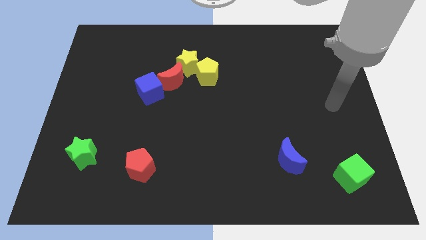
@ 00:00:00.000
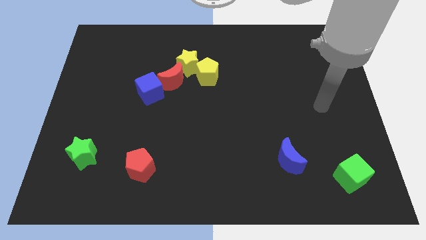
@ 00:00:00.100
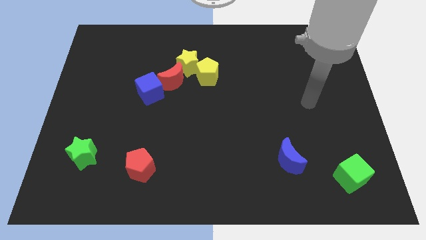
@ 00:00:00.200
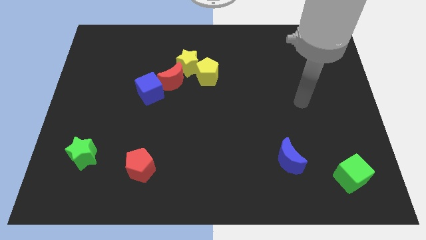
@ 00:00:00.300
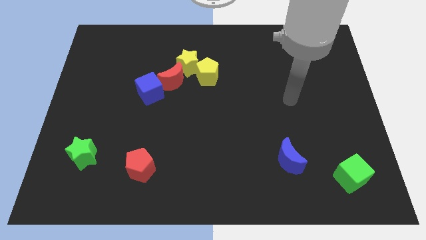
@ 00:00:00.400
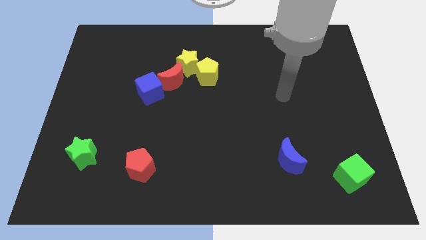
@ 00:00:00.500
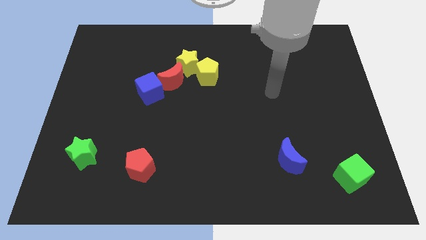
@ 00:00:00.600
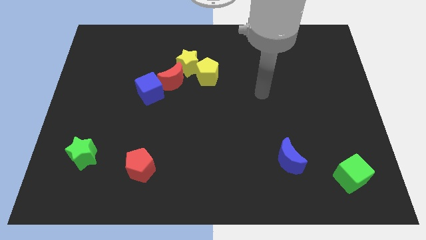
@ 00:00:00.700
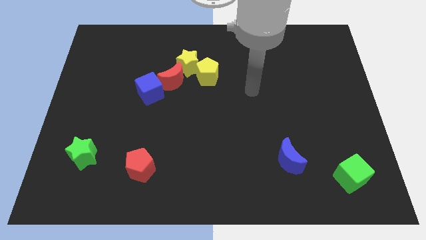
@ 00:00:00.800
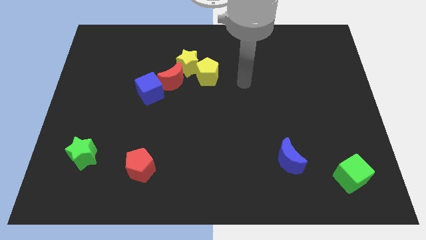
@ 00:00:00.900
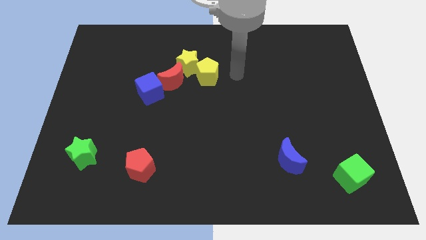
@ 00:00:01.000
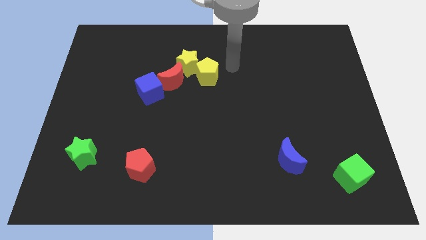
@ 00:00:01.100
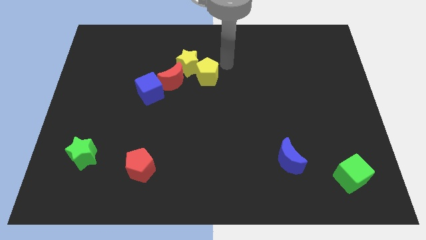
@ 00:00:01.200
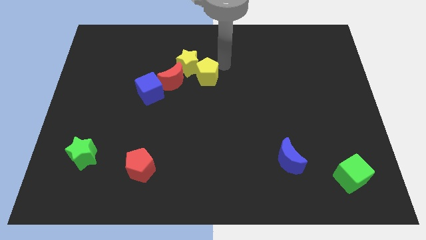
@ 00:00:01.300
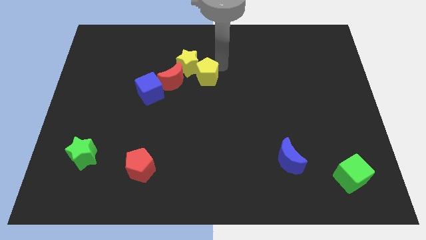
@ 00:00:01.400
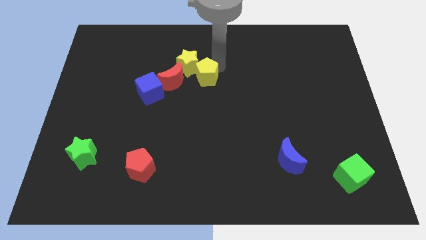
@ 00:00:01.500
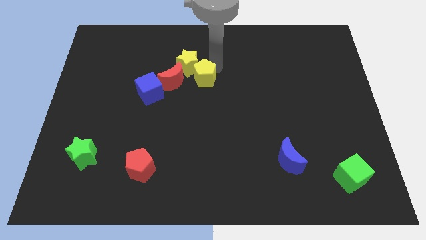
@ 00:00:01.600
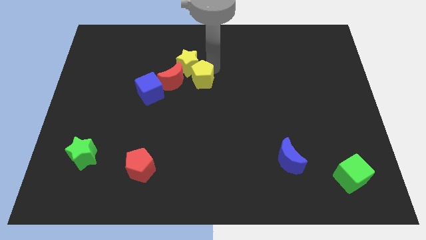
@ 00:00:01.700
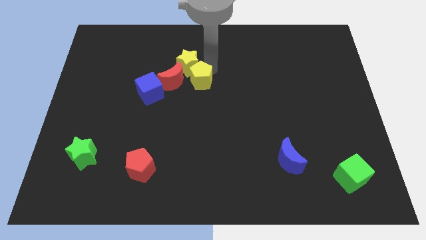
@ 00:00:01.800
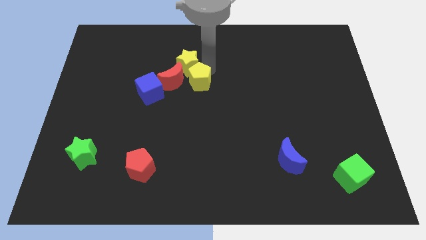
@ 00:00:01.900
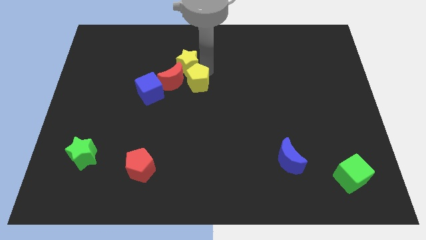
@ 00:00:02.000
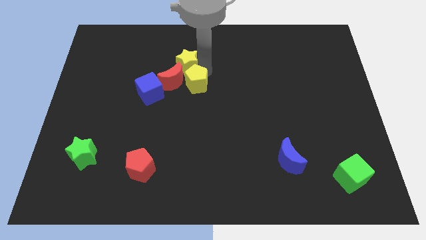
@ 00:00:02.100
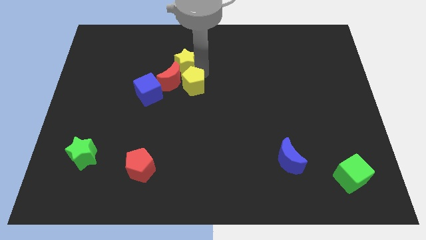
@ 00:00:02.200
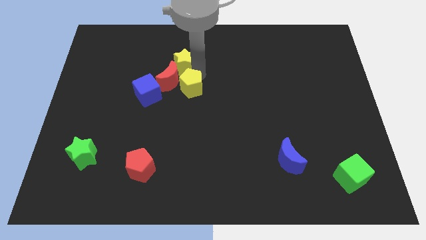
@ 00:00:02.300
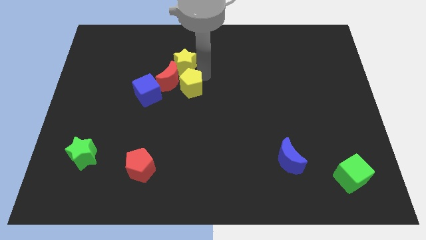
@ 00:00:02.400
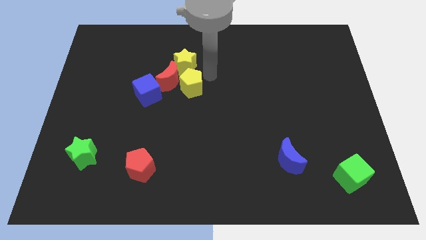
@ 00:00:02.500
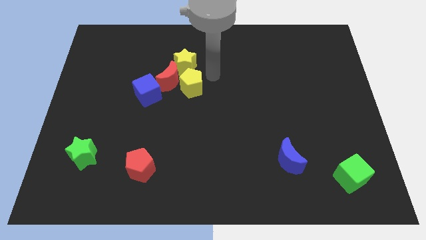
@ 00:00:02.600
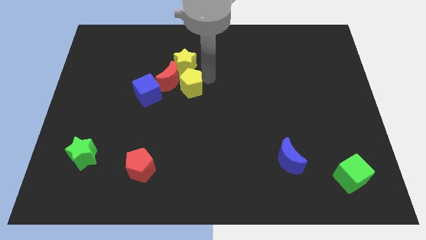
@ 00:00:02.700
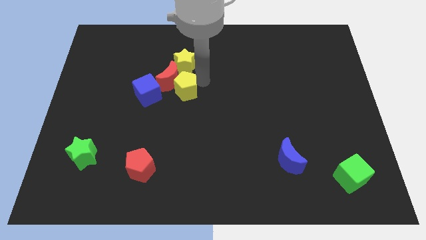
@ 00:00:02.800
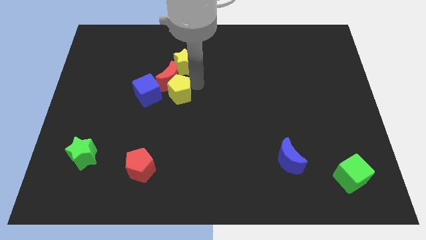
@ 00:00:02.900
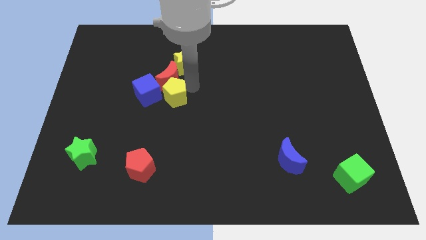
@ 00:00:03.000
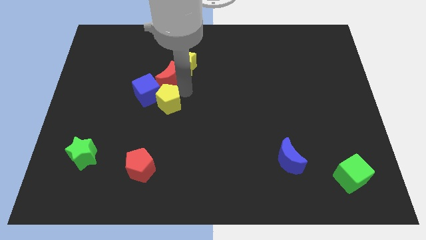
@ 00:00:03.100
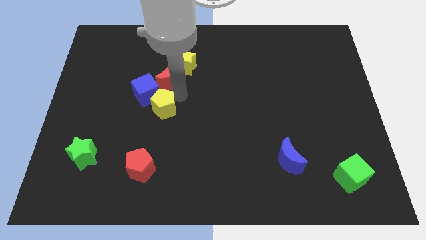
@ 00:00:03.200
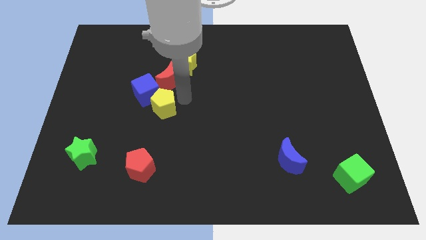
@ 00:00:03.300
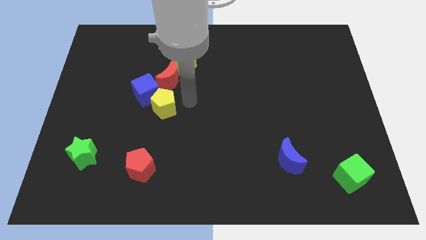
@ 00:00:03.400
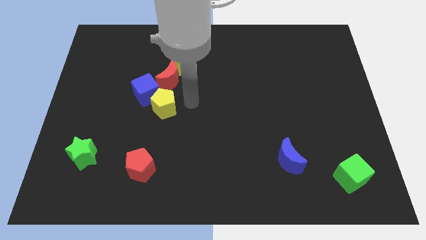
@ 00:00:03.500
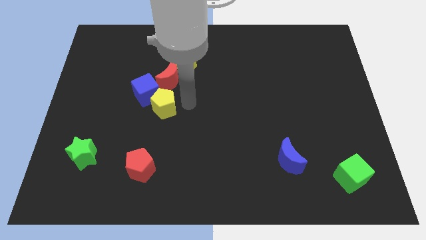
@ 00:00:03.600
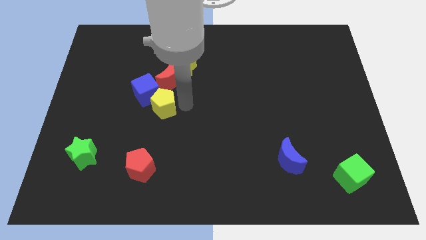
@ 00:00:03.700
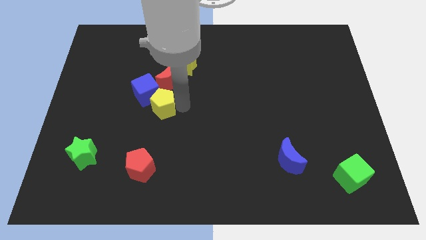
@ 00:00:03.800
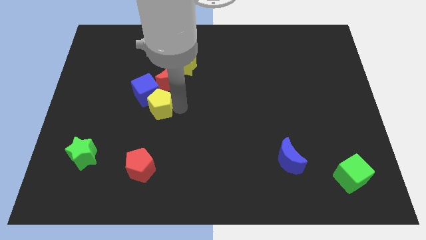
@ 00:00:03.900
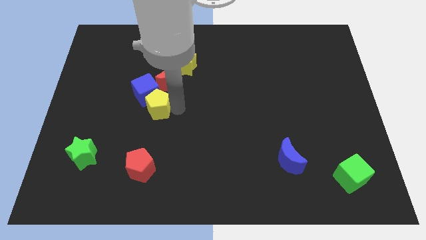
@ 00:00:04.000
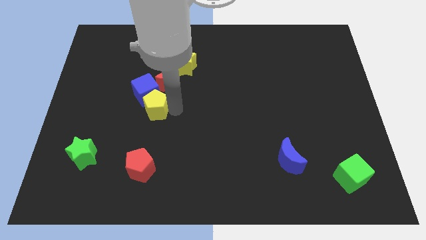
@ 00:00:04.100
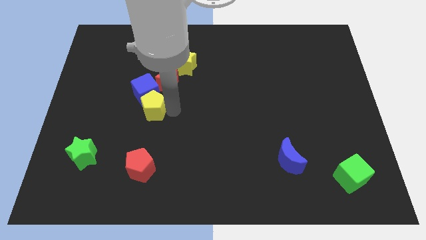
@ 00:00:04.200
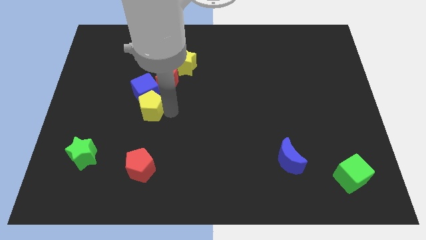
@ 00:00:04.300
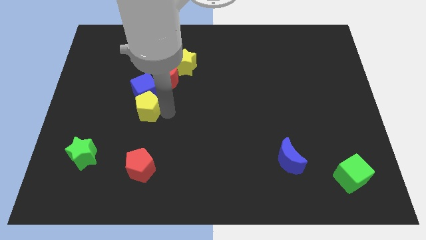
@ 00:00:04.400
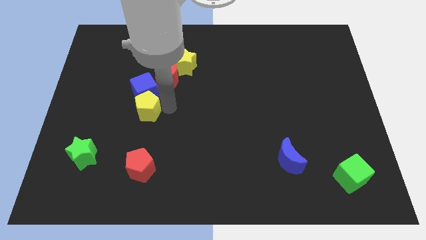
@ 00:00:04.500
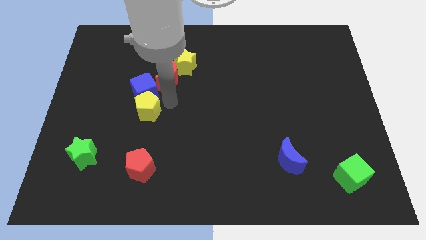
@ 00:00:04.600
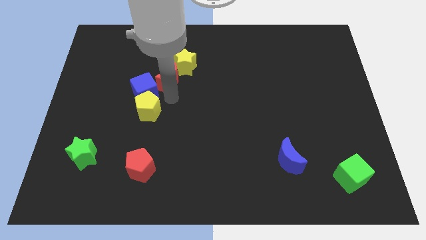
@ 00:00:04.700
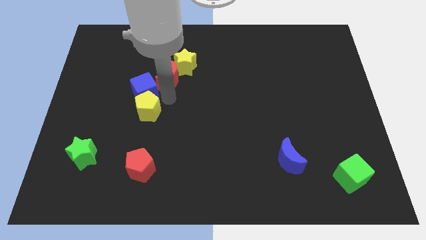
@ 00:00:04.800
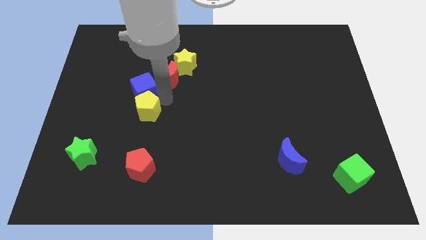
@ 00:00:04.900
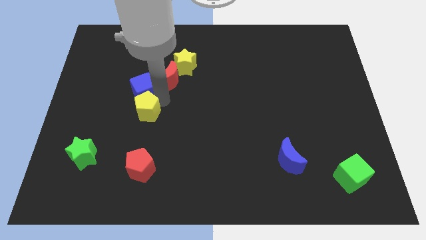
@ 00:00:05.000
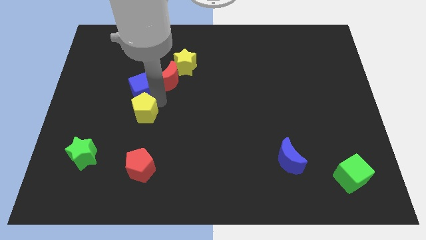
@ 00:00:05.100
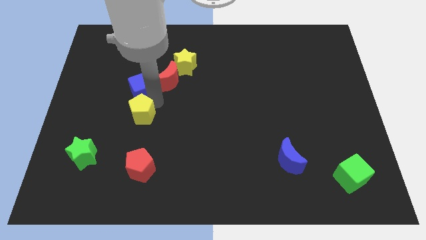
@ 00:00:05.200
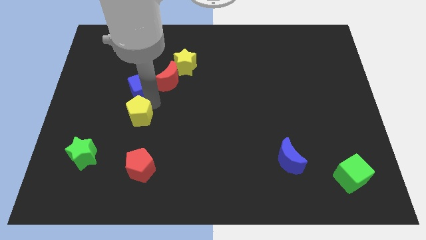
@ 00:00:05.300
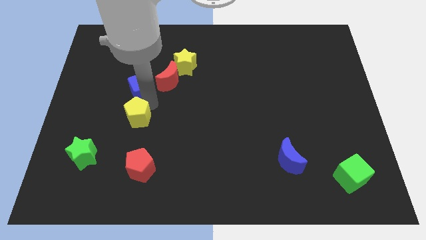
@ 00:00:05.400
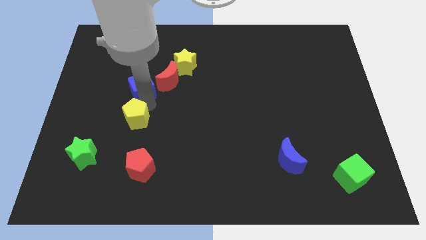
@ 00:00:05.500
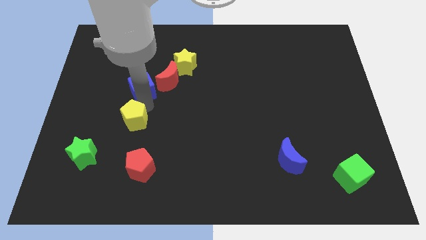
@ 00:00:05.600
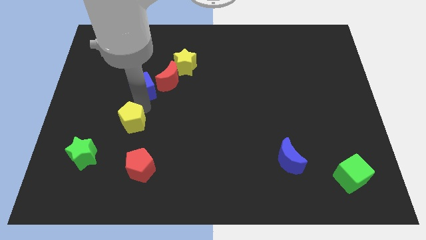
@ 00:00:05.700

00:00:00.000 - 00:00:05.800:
move the yellow pentagon to the top right of the green star

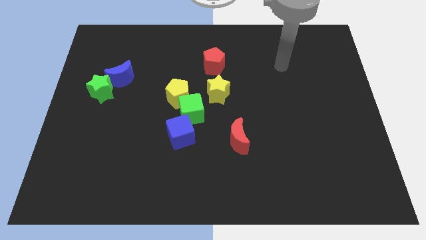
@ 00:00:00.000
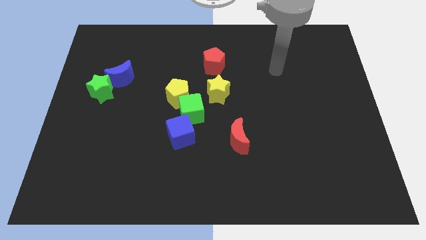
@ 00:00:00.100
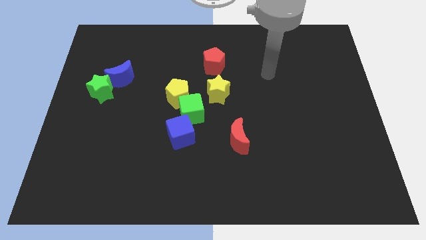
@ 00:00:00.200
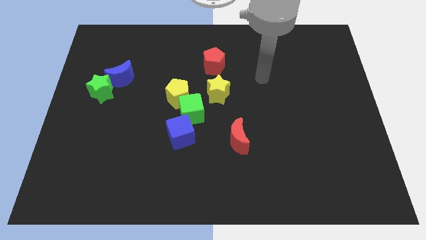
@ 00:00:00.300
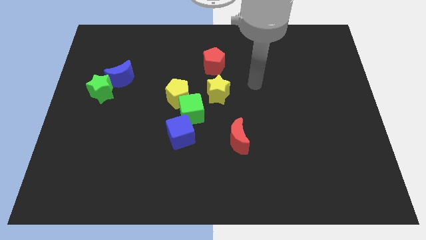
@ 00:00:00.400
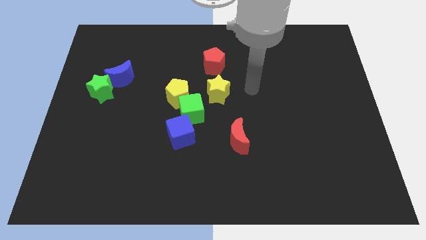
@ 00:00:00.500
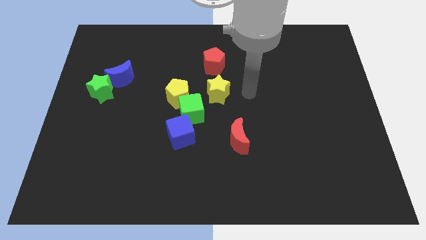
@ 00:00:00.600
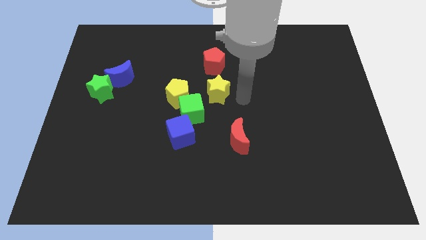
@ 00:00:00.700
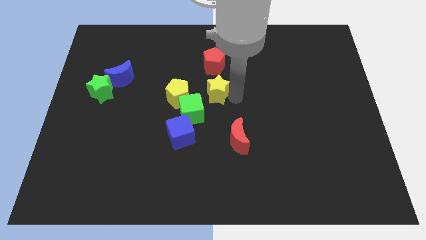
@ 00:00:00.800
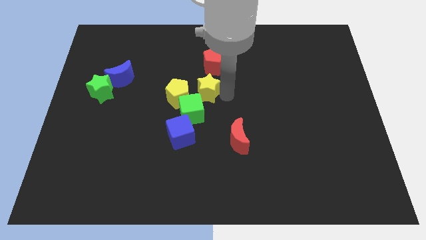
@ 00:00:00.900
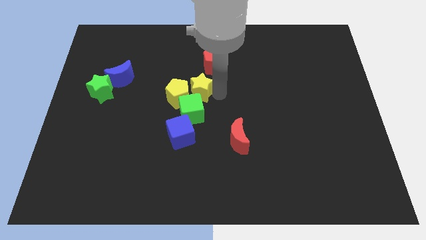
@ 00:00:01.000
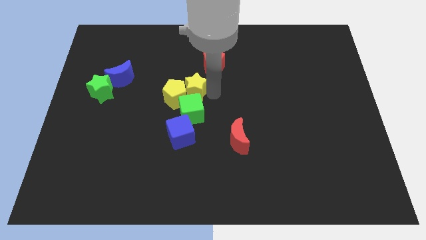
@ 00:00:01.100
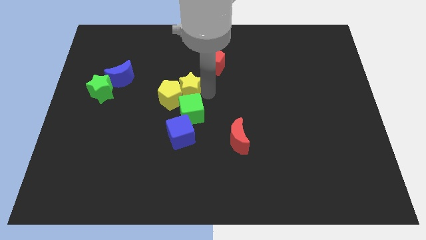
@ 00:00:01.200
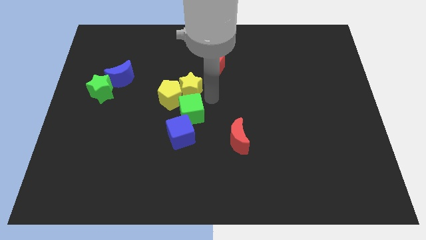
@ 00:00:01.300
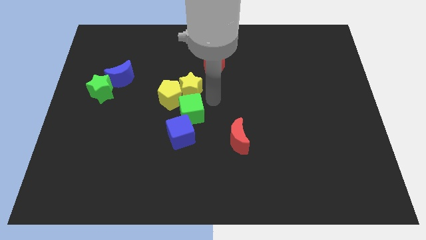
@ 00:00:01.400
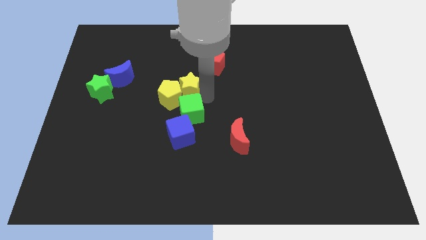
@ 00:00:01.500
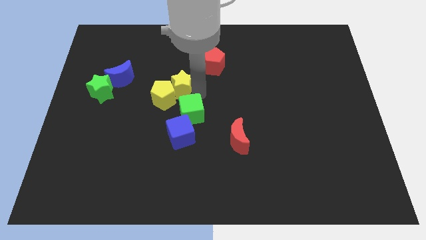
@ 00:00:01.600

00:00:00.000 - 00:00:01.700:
put the yellow star just right of the blue moon

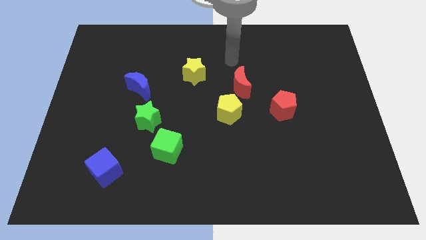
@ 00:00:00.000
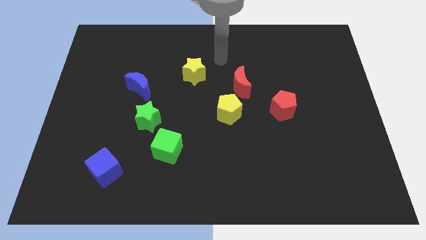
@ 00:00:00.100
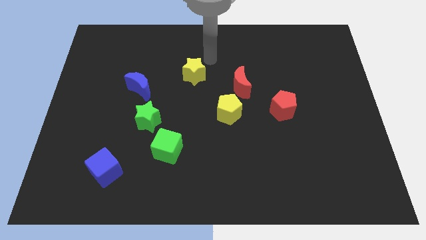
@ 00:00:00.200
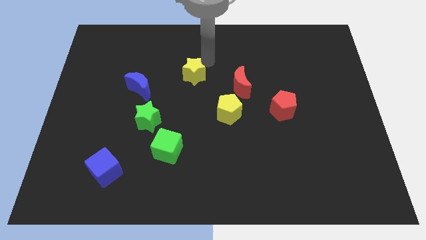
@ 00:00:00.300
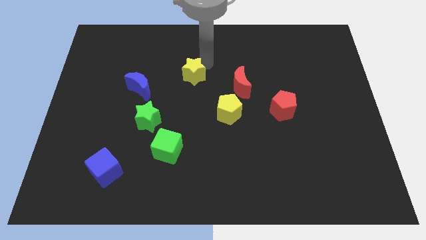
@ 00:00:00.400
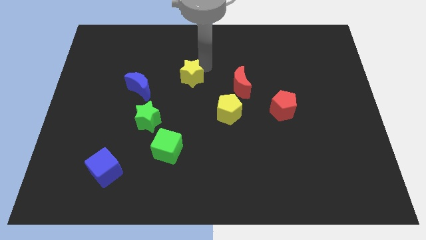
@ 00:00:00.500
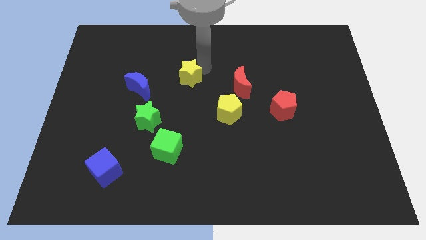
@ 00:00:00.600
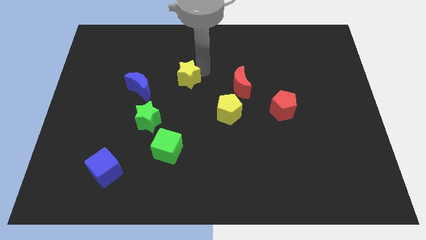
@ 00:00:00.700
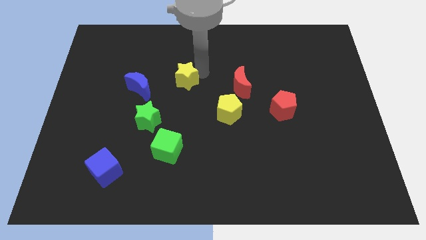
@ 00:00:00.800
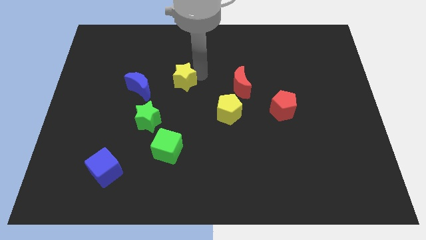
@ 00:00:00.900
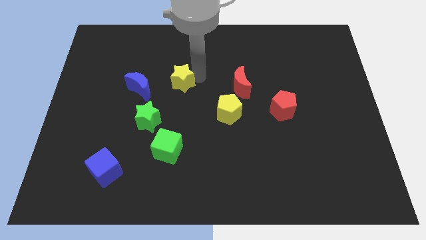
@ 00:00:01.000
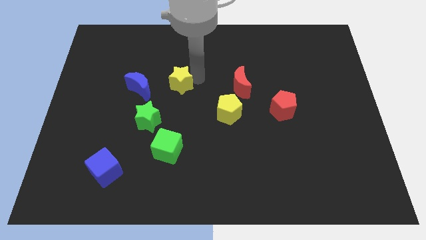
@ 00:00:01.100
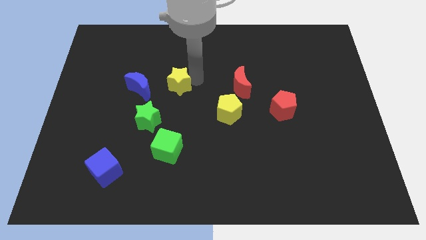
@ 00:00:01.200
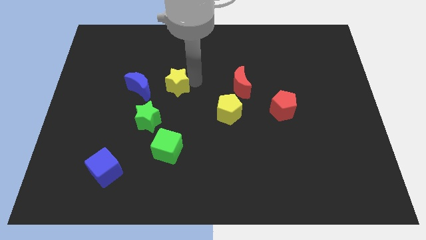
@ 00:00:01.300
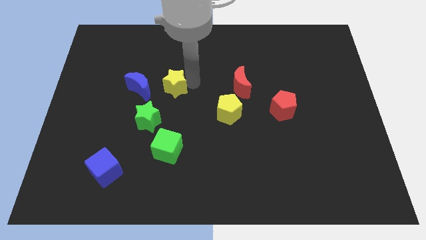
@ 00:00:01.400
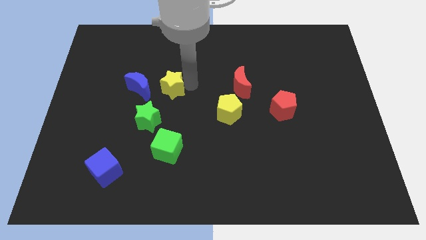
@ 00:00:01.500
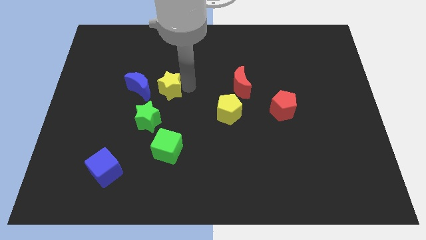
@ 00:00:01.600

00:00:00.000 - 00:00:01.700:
slide the yellow star to the bottom right side of the blue moon
